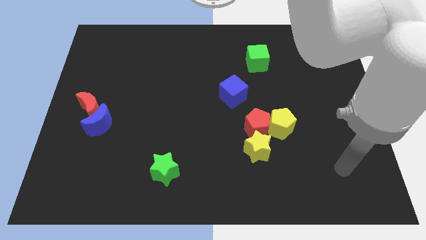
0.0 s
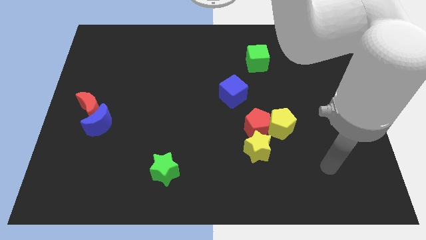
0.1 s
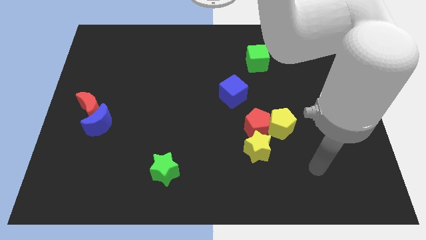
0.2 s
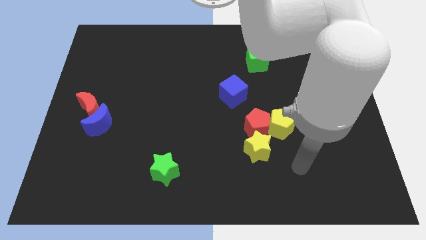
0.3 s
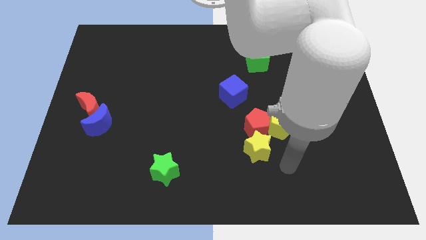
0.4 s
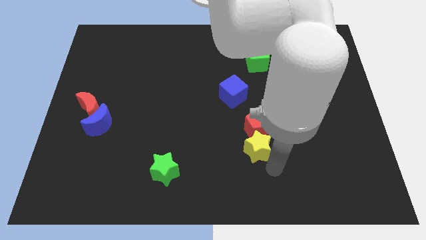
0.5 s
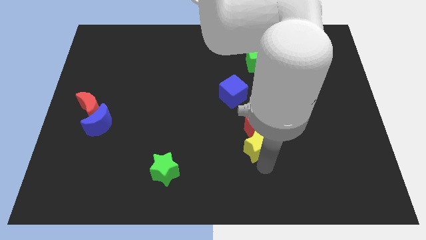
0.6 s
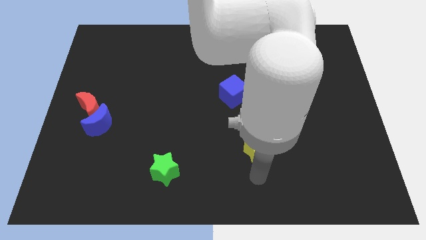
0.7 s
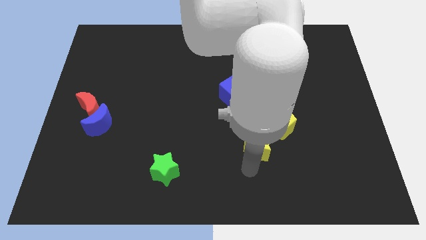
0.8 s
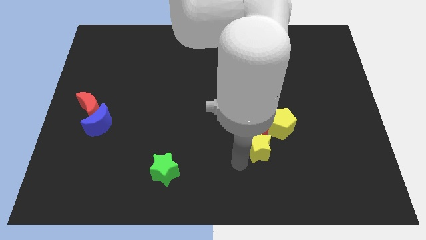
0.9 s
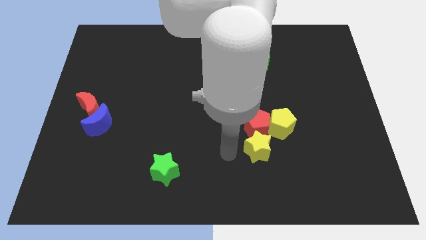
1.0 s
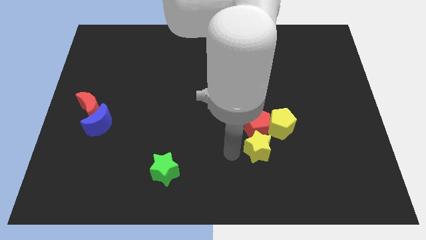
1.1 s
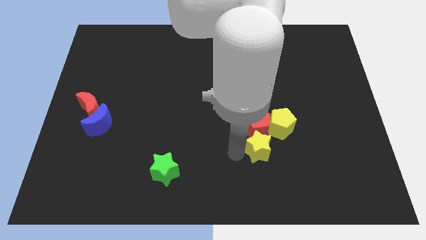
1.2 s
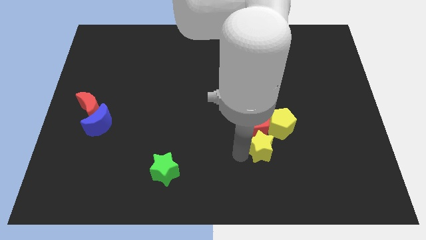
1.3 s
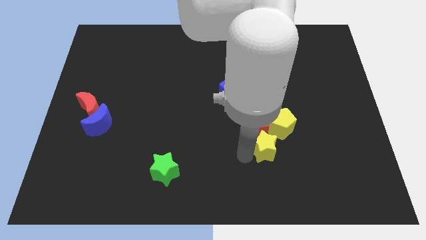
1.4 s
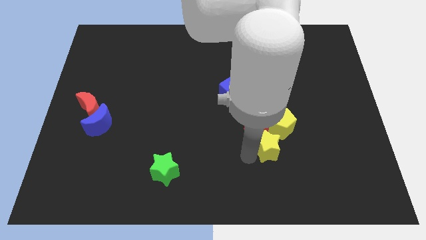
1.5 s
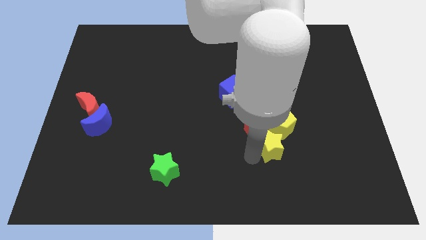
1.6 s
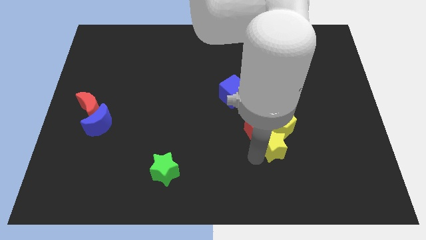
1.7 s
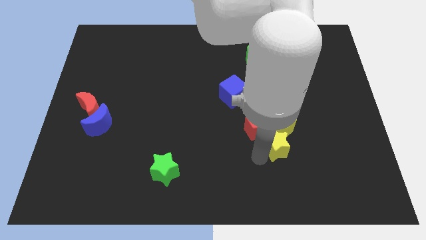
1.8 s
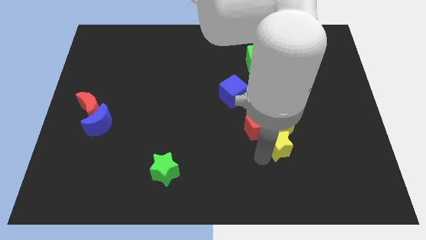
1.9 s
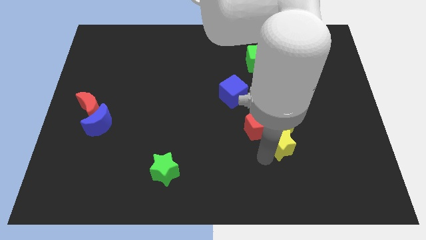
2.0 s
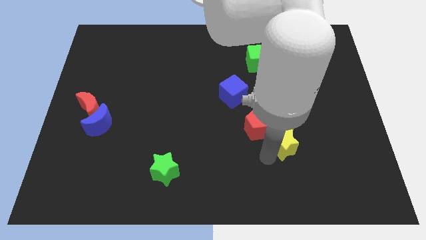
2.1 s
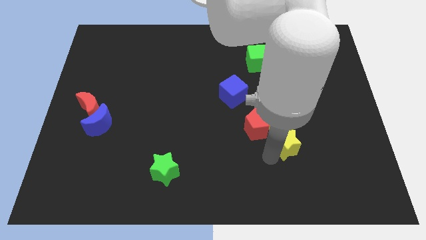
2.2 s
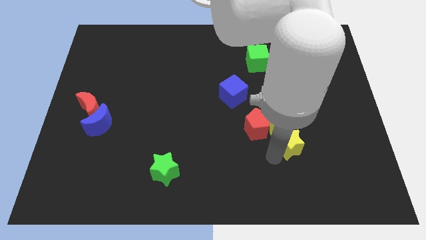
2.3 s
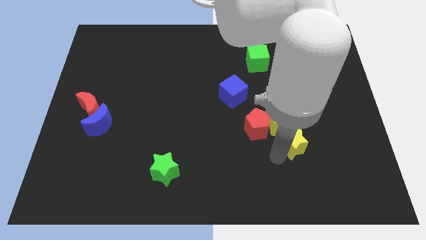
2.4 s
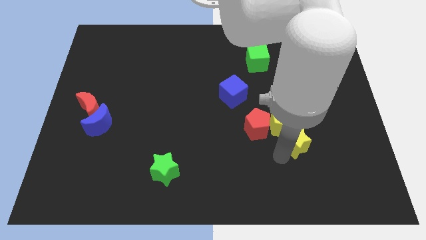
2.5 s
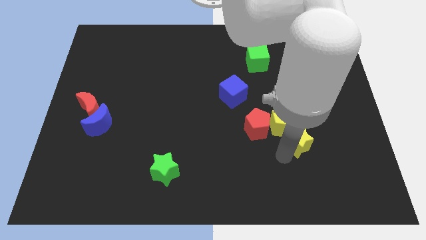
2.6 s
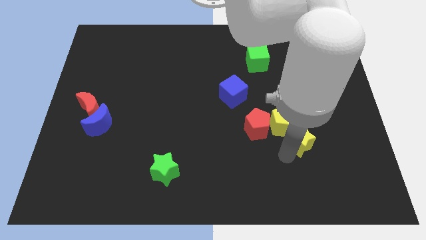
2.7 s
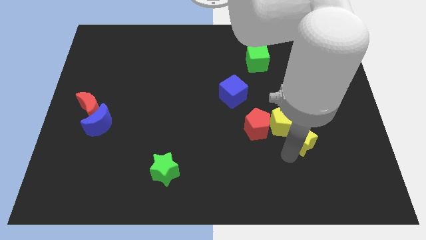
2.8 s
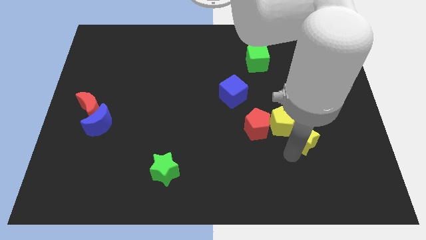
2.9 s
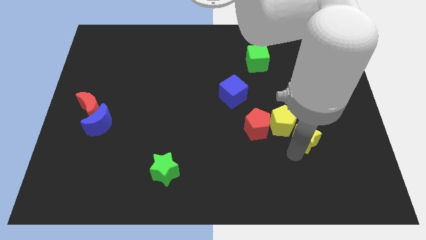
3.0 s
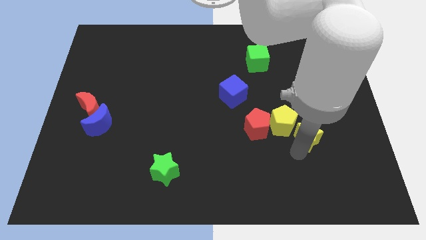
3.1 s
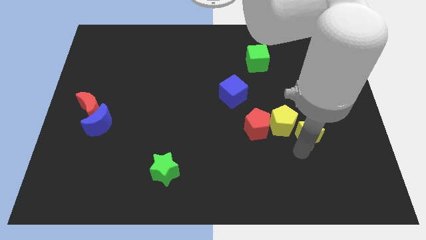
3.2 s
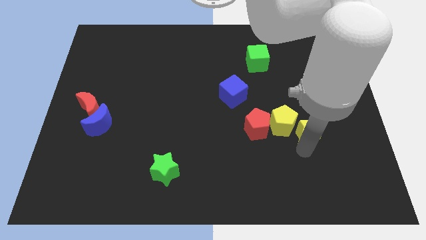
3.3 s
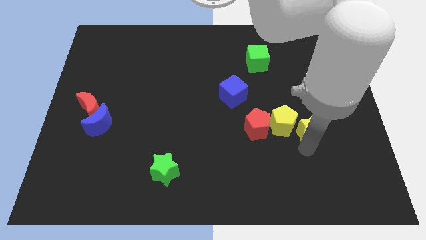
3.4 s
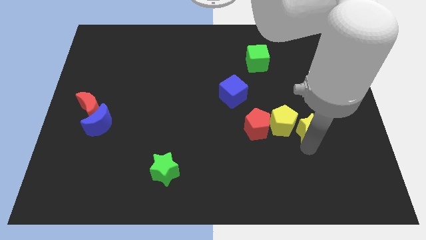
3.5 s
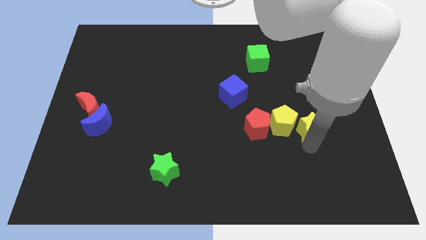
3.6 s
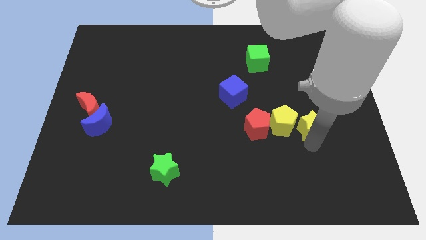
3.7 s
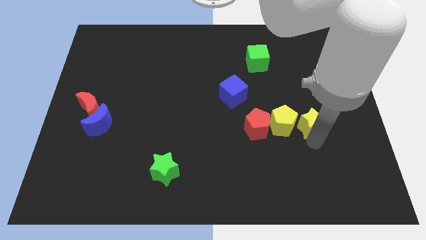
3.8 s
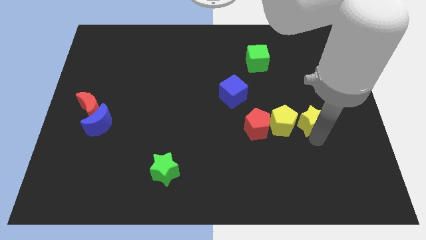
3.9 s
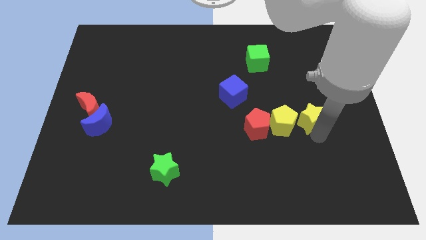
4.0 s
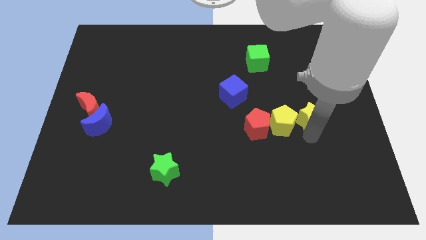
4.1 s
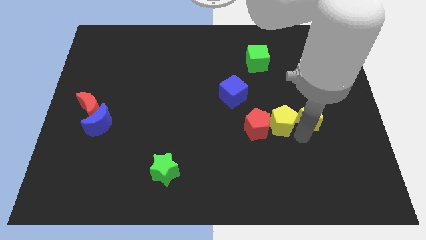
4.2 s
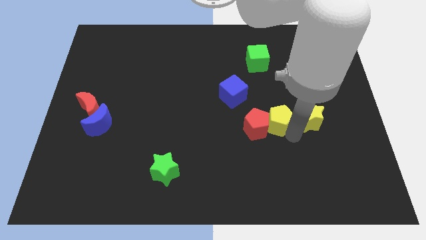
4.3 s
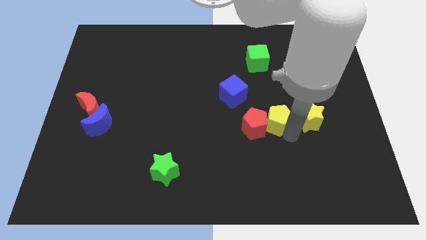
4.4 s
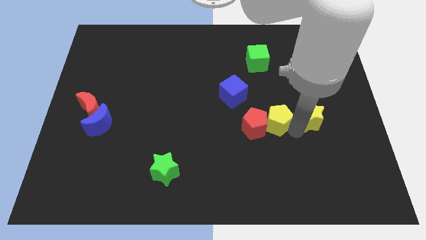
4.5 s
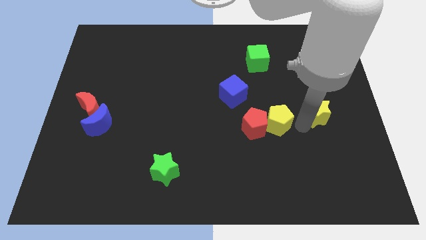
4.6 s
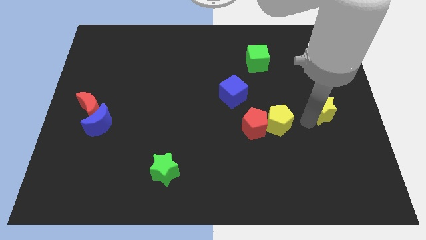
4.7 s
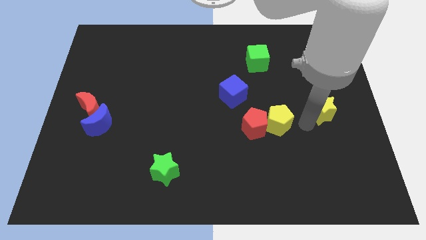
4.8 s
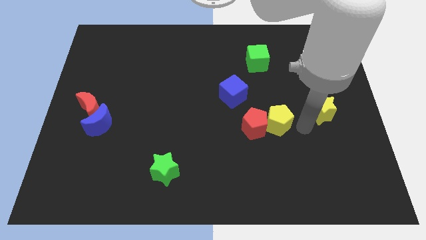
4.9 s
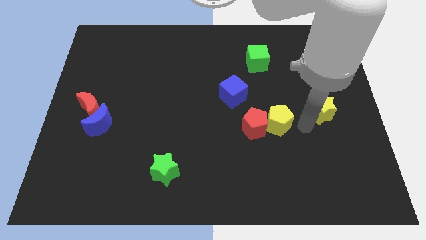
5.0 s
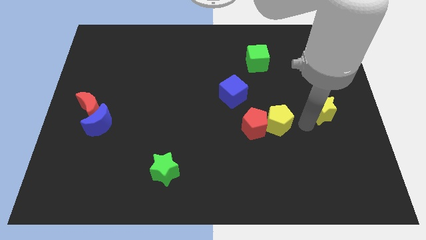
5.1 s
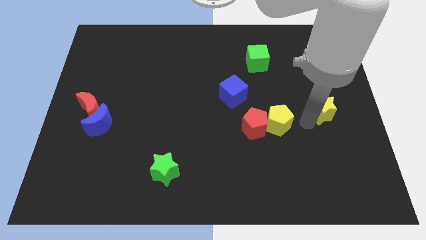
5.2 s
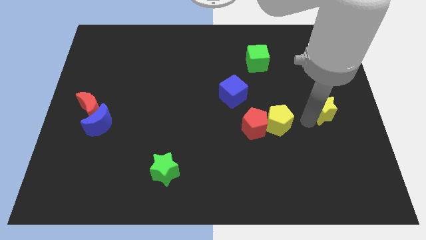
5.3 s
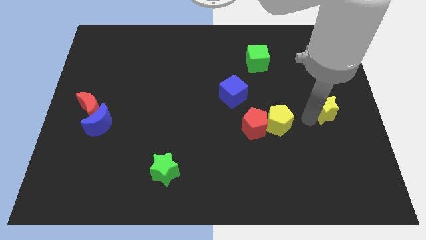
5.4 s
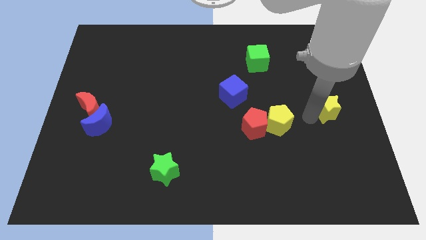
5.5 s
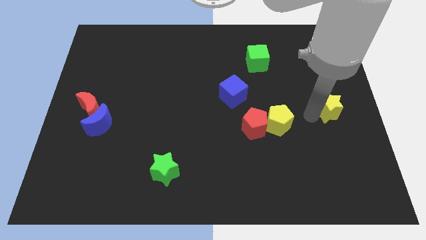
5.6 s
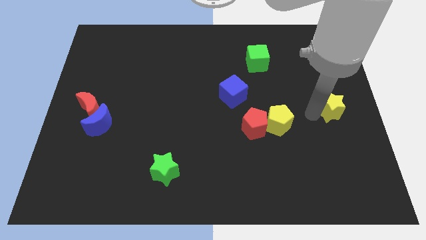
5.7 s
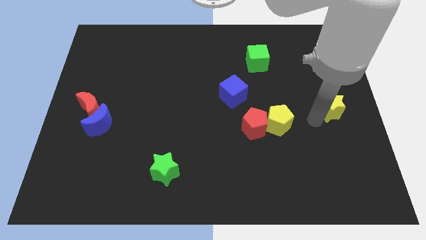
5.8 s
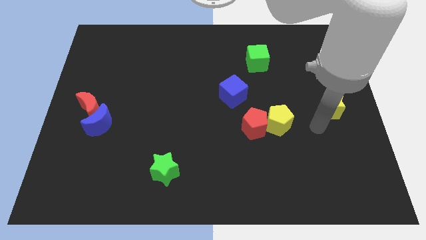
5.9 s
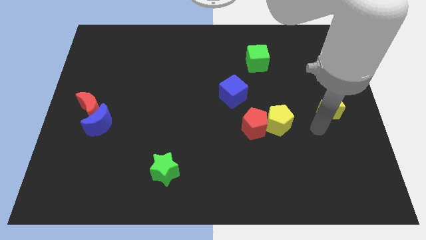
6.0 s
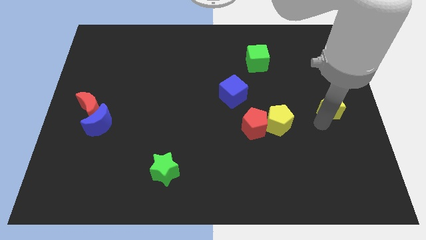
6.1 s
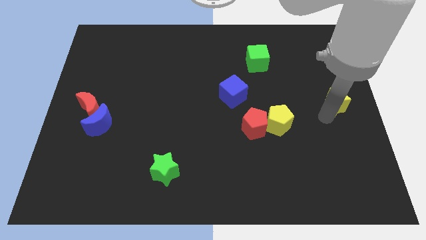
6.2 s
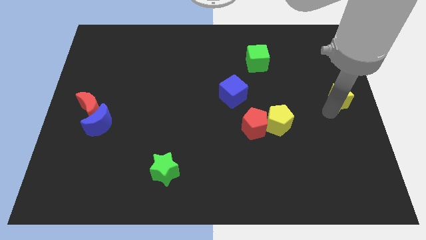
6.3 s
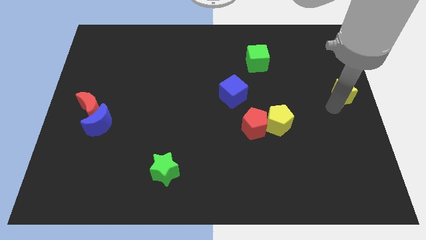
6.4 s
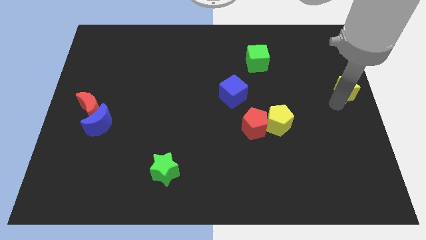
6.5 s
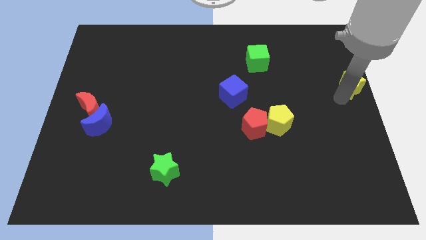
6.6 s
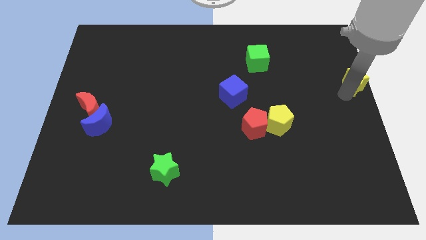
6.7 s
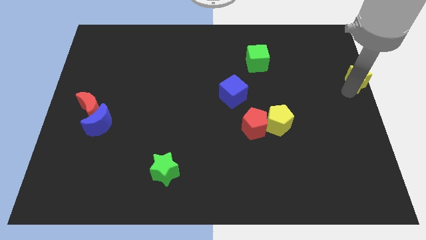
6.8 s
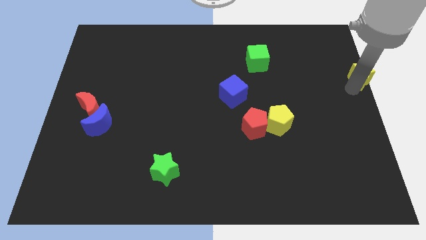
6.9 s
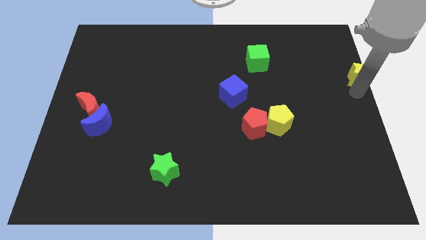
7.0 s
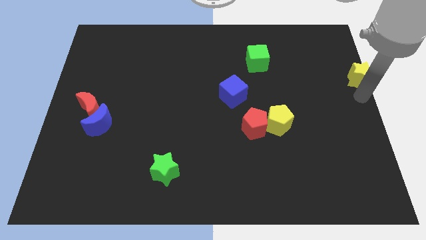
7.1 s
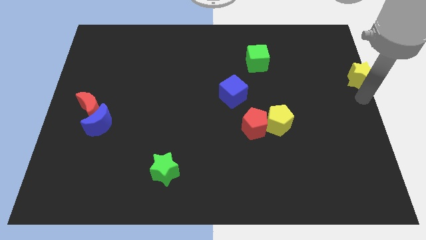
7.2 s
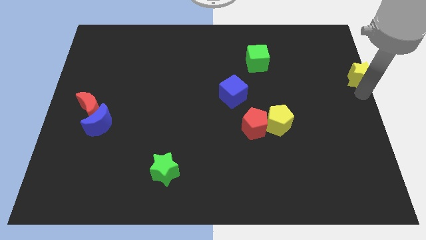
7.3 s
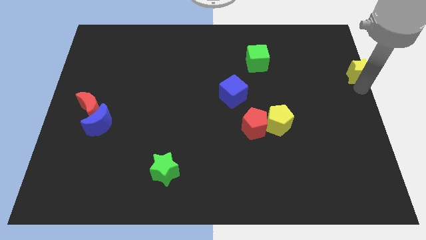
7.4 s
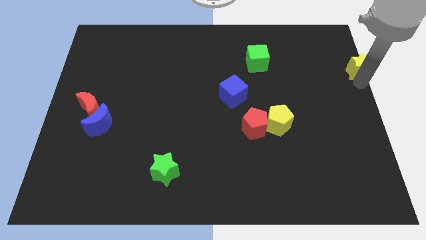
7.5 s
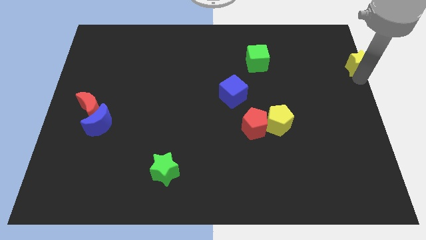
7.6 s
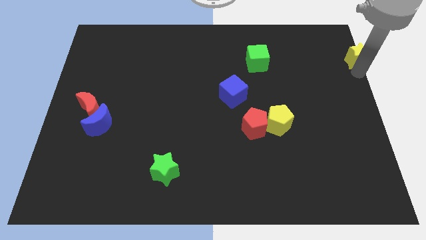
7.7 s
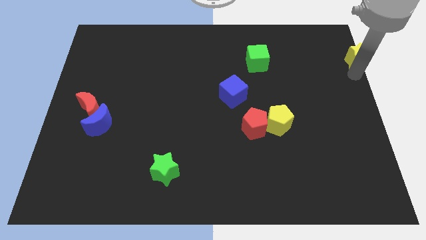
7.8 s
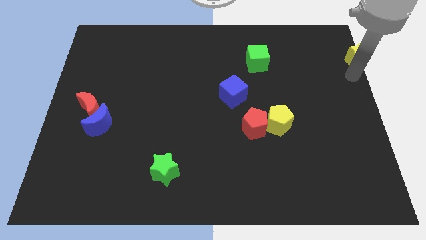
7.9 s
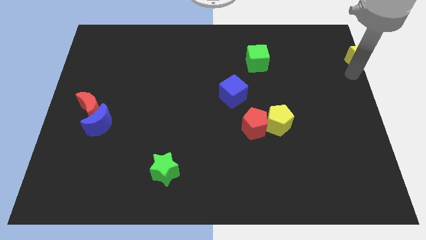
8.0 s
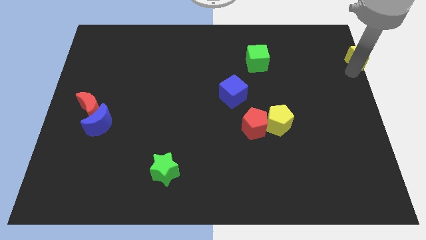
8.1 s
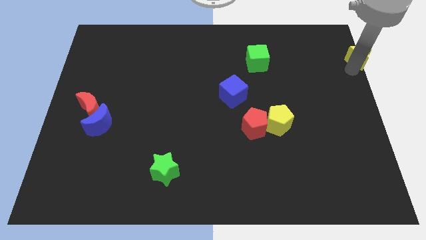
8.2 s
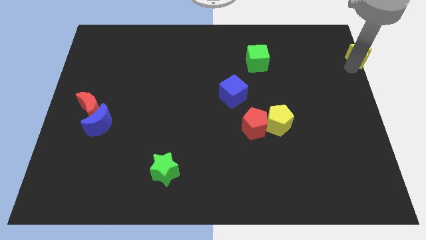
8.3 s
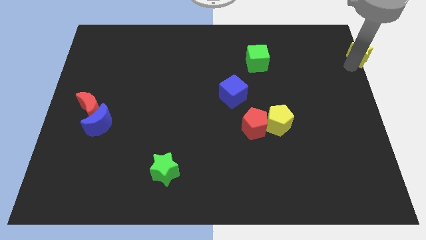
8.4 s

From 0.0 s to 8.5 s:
slide the yellow star to the top right corner
